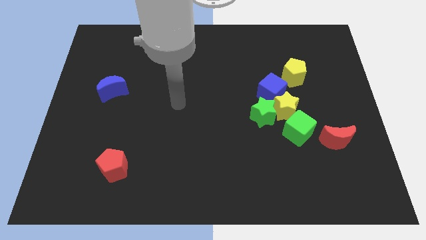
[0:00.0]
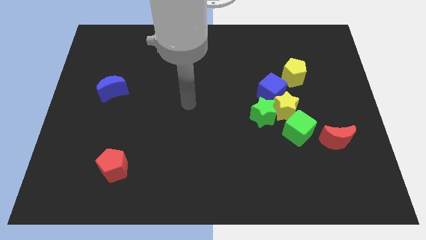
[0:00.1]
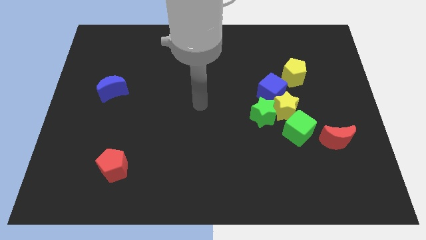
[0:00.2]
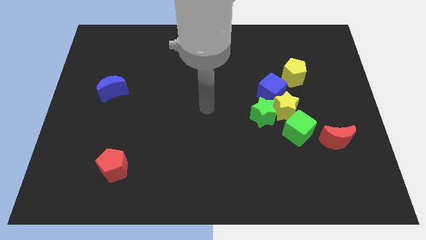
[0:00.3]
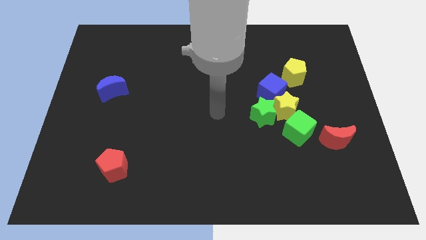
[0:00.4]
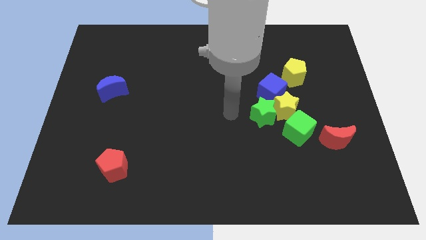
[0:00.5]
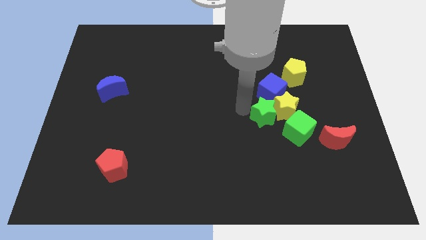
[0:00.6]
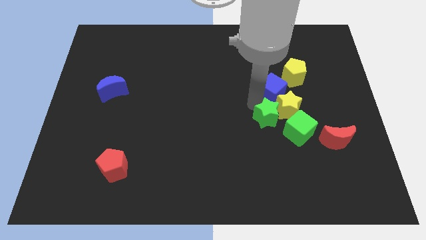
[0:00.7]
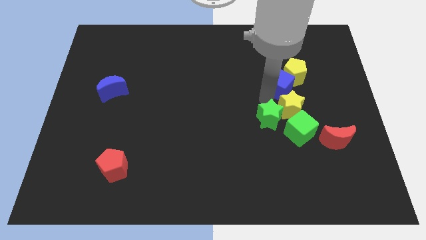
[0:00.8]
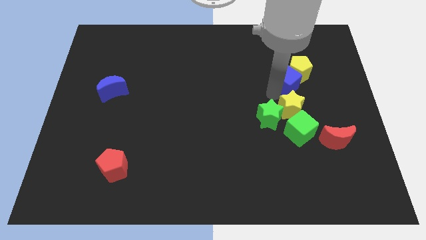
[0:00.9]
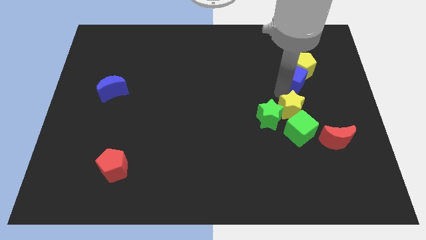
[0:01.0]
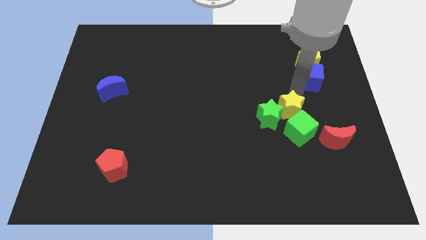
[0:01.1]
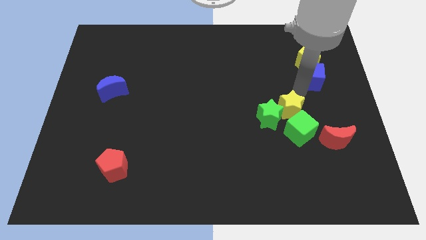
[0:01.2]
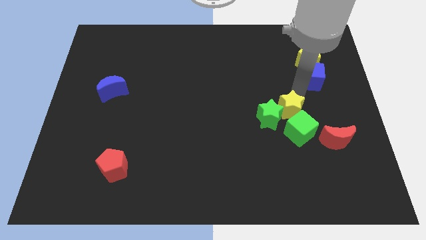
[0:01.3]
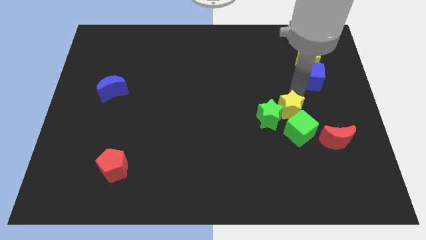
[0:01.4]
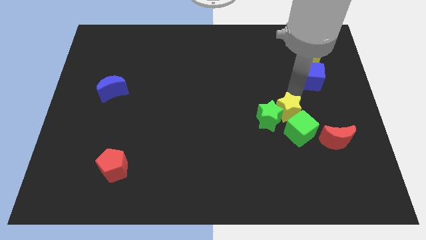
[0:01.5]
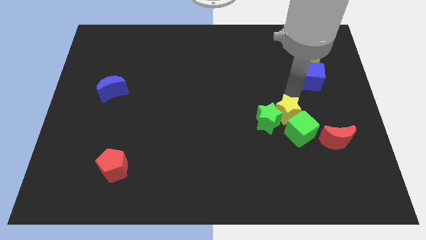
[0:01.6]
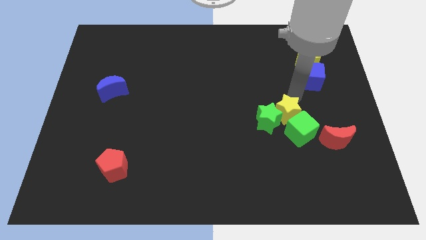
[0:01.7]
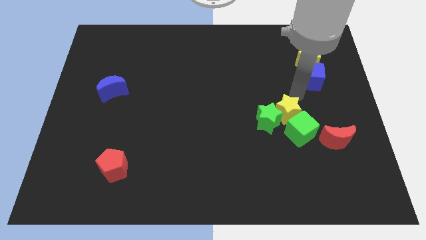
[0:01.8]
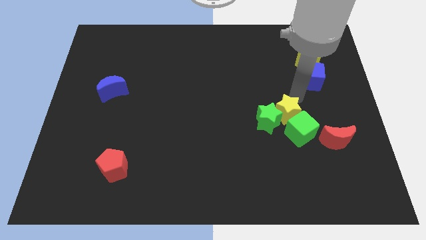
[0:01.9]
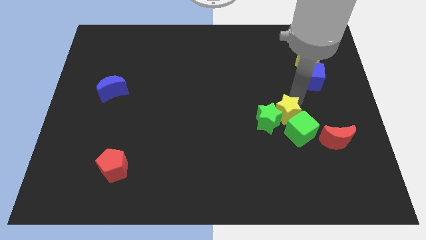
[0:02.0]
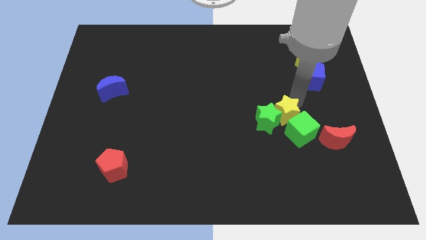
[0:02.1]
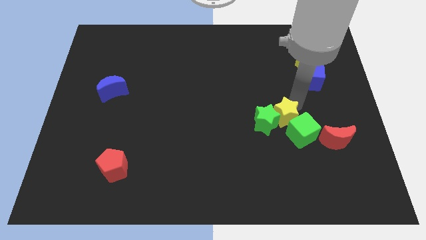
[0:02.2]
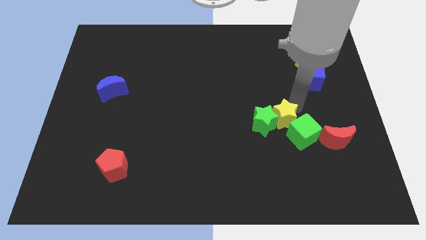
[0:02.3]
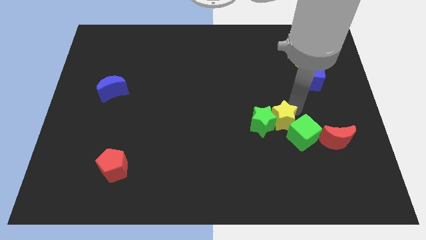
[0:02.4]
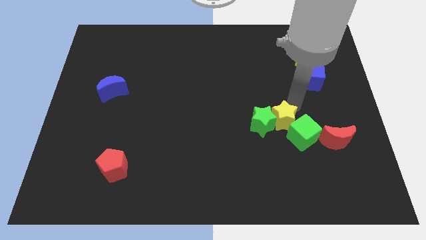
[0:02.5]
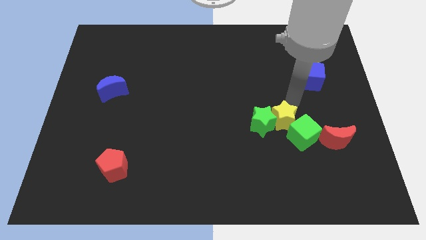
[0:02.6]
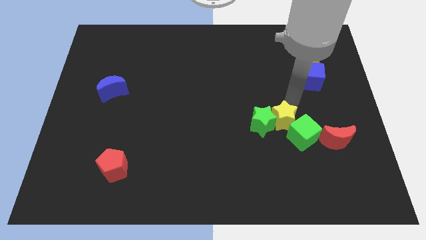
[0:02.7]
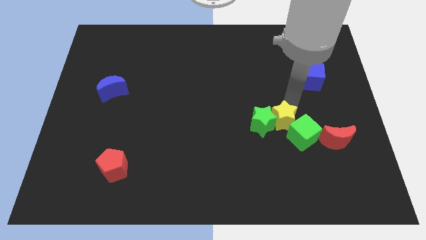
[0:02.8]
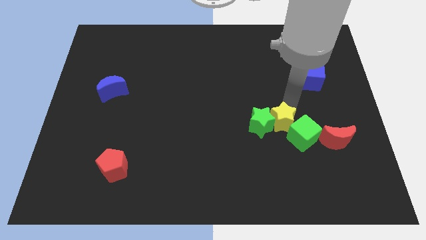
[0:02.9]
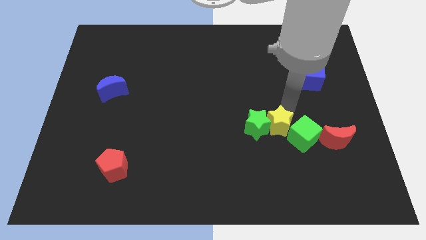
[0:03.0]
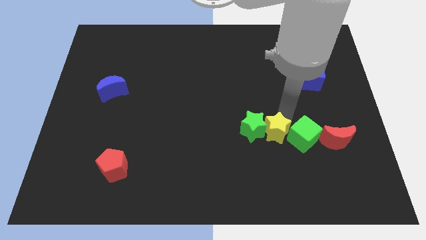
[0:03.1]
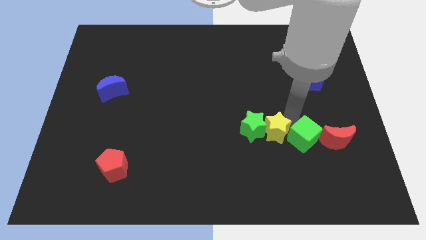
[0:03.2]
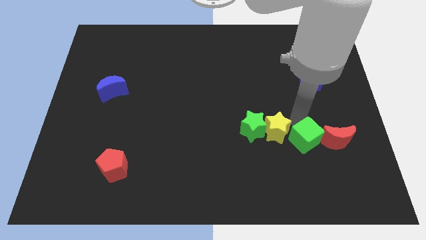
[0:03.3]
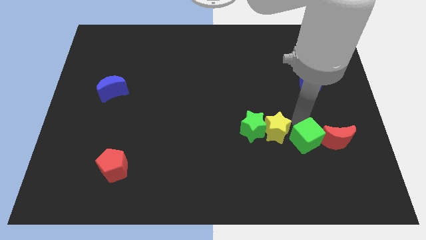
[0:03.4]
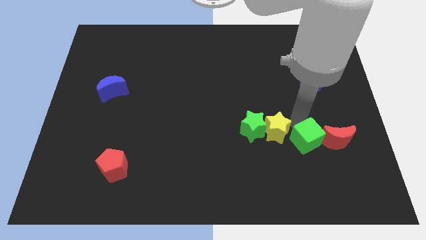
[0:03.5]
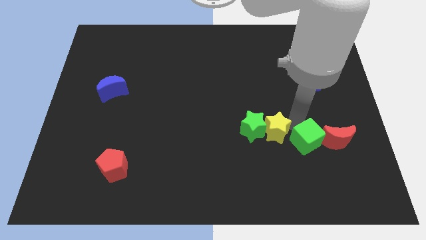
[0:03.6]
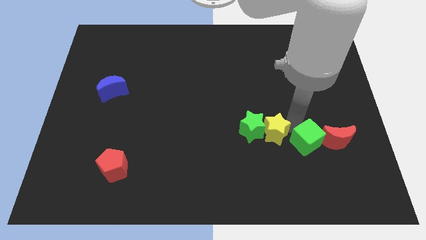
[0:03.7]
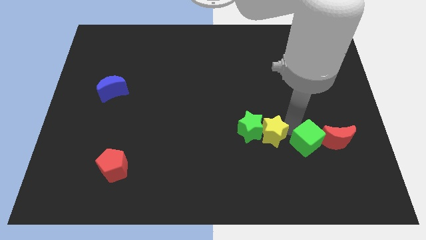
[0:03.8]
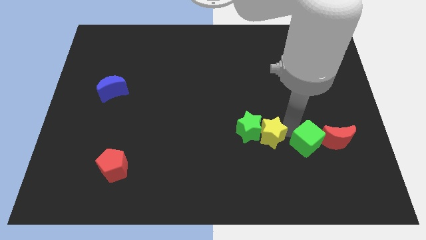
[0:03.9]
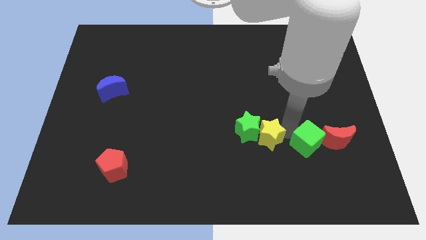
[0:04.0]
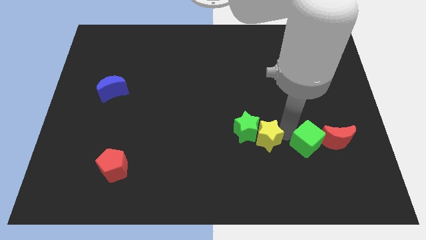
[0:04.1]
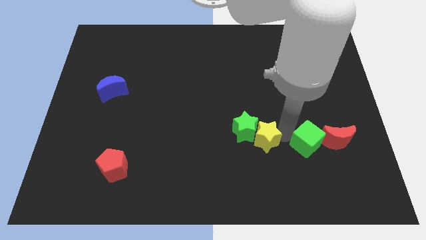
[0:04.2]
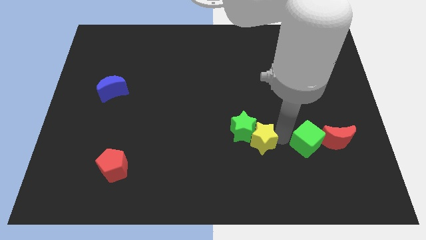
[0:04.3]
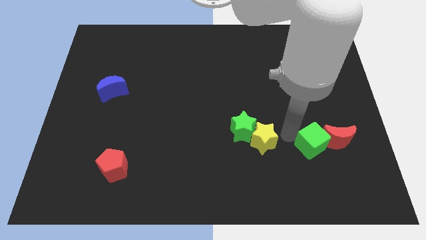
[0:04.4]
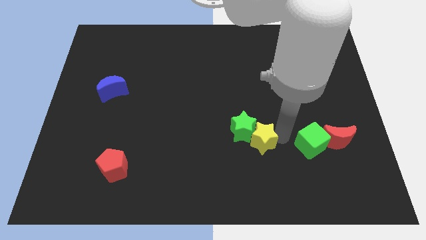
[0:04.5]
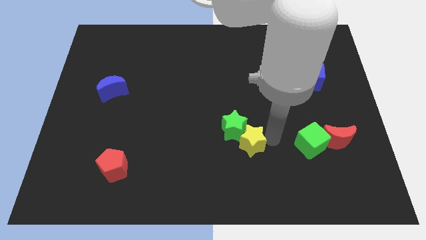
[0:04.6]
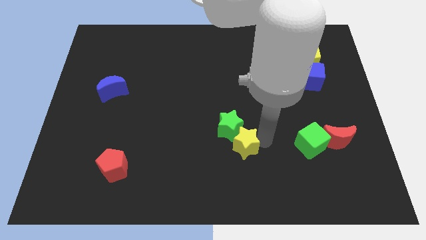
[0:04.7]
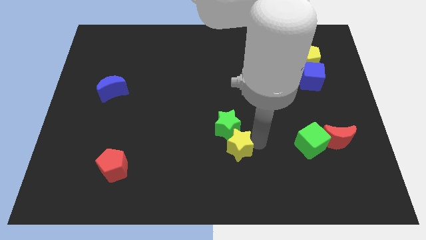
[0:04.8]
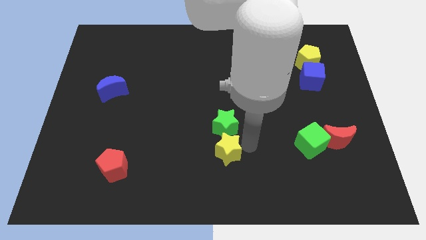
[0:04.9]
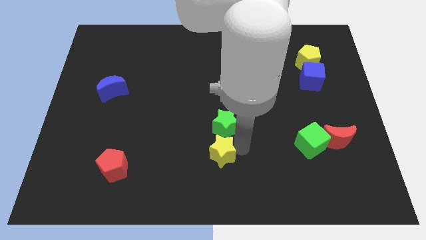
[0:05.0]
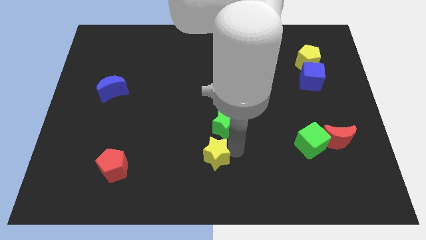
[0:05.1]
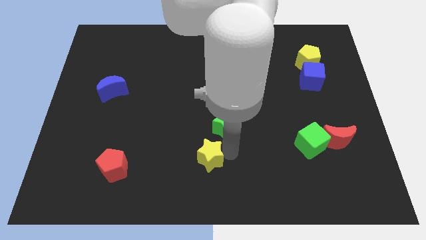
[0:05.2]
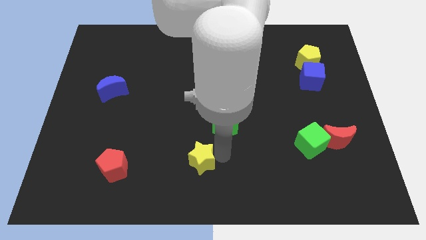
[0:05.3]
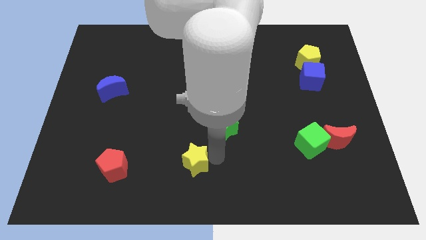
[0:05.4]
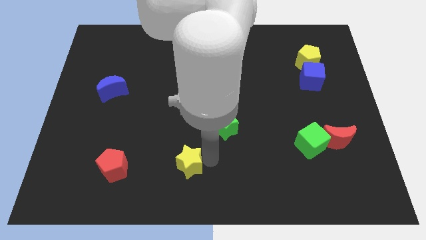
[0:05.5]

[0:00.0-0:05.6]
put the yellow star just right of the red pentagon
